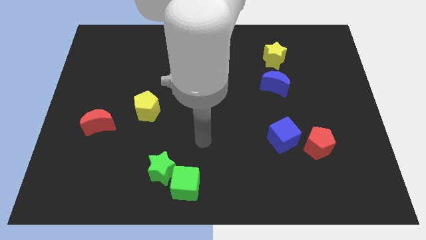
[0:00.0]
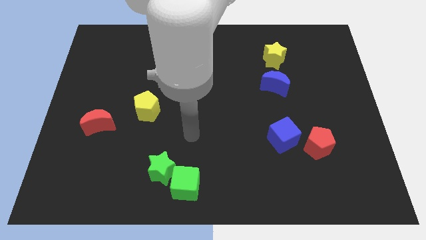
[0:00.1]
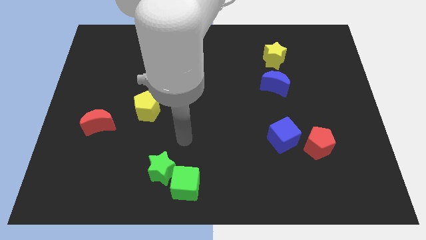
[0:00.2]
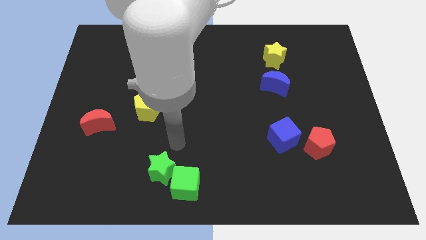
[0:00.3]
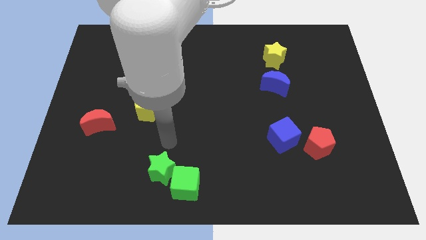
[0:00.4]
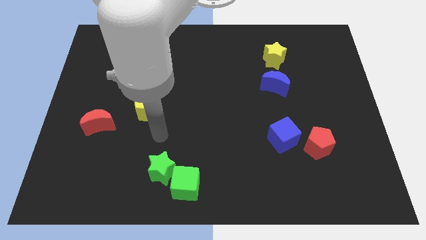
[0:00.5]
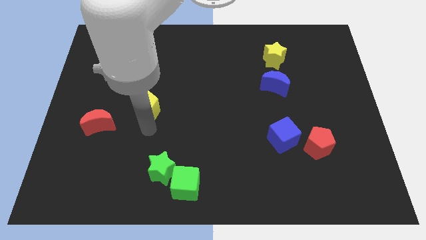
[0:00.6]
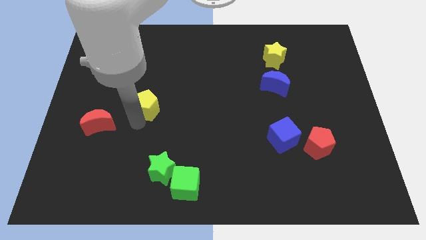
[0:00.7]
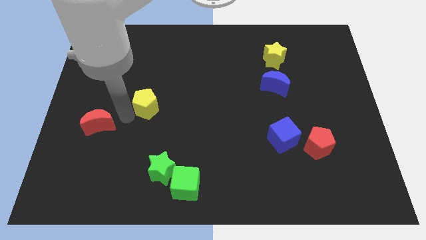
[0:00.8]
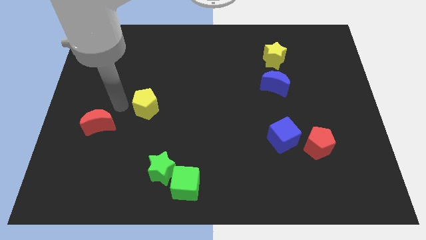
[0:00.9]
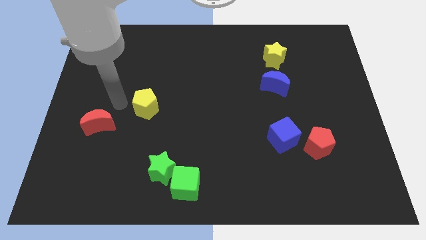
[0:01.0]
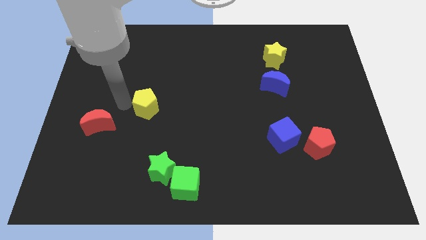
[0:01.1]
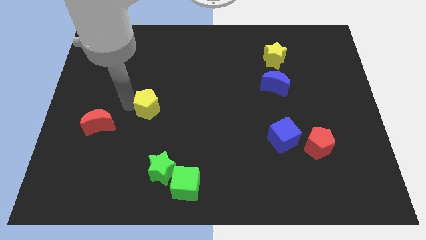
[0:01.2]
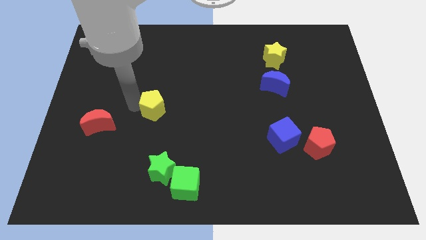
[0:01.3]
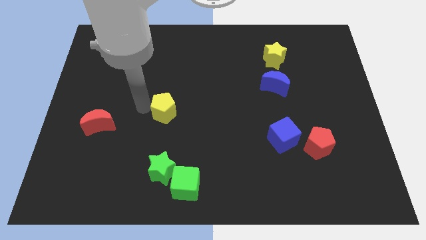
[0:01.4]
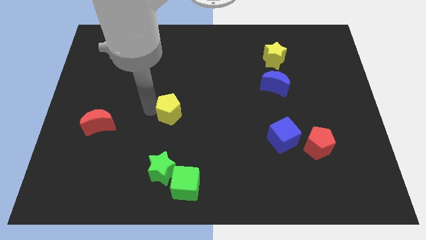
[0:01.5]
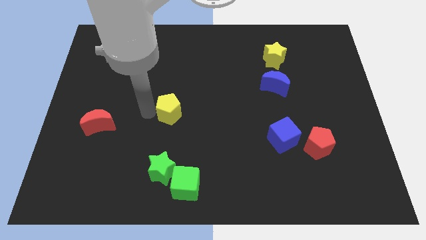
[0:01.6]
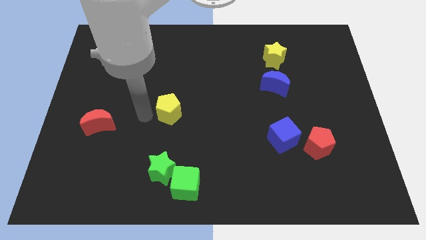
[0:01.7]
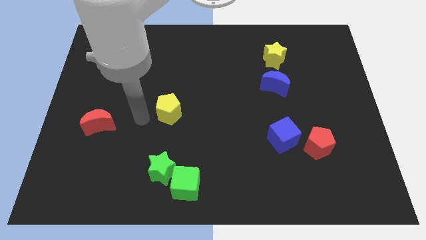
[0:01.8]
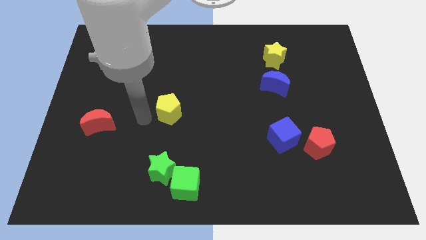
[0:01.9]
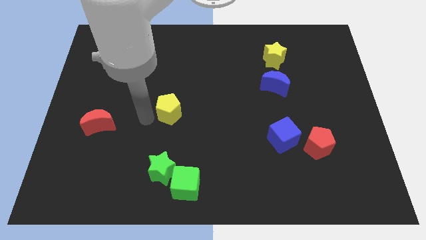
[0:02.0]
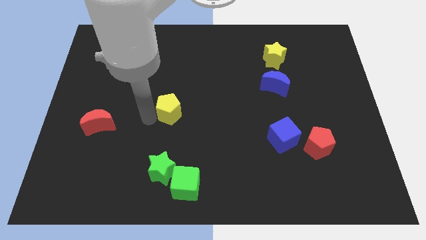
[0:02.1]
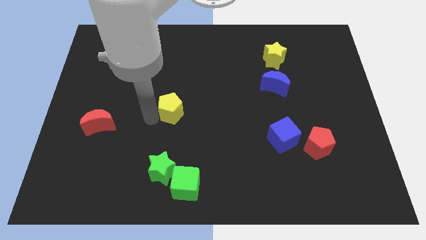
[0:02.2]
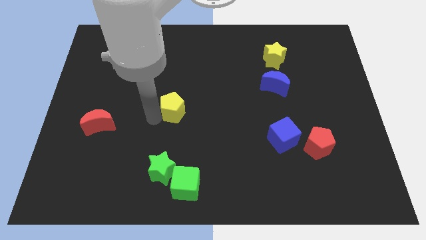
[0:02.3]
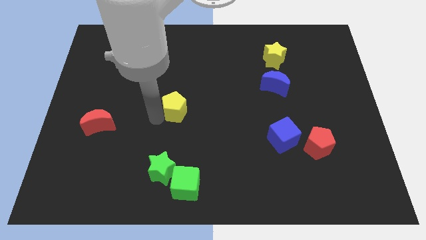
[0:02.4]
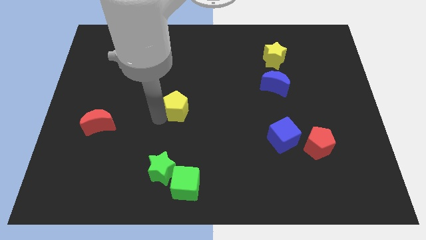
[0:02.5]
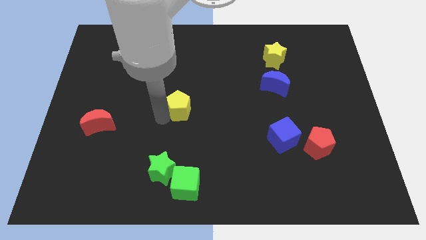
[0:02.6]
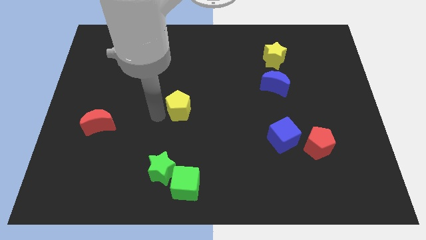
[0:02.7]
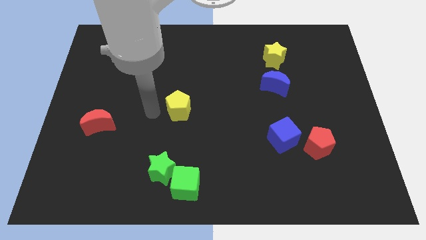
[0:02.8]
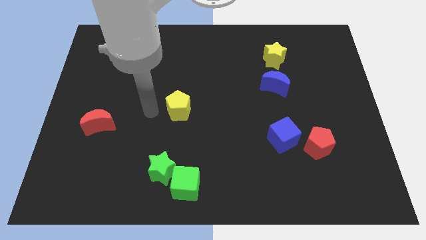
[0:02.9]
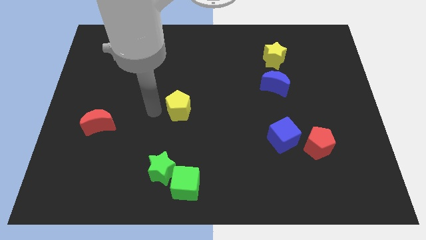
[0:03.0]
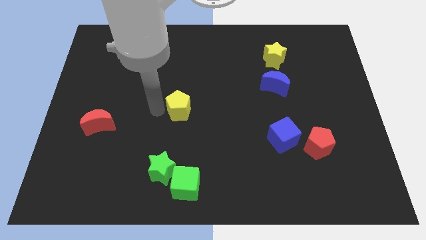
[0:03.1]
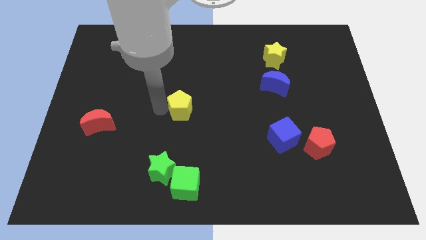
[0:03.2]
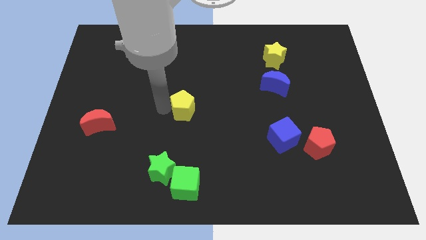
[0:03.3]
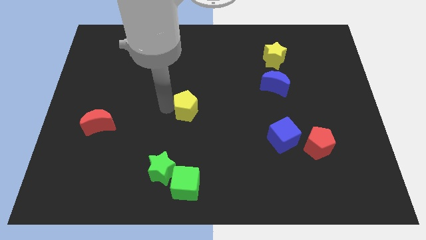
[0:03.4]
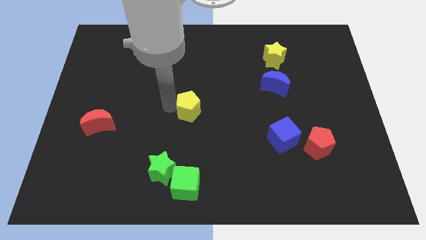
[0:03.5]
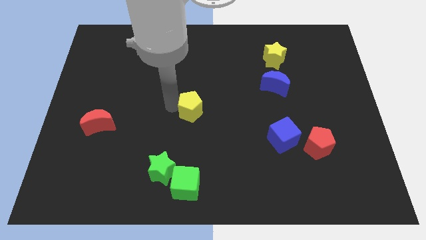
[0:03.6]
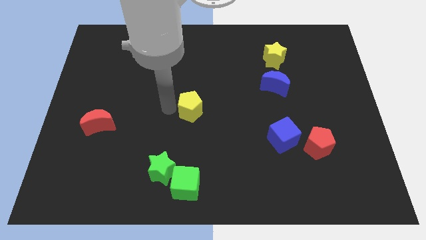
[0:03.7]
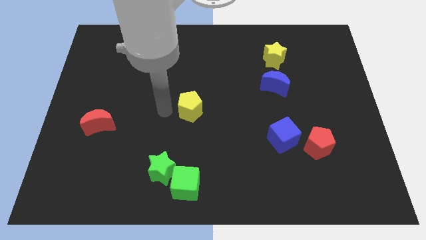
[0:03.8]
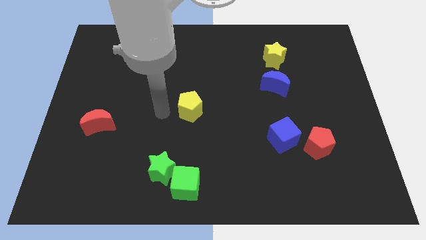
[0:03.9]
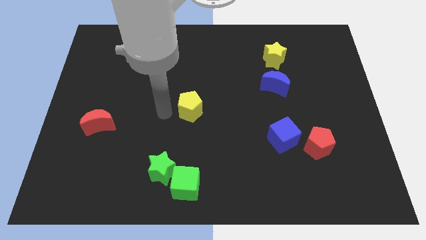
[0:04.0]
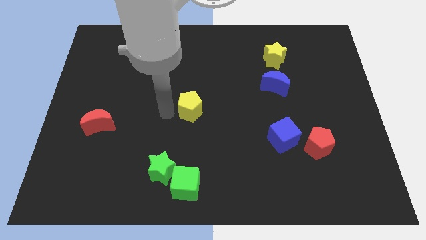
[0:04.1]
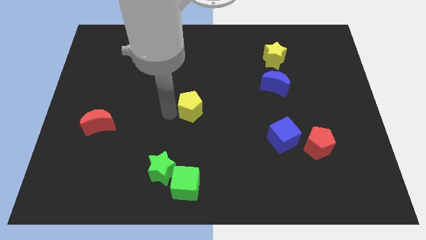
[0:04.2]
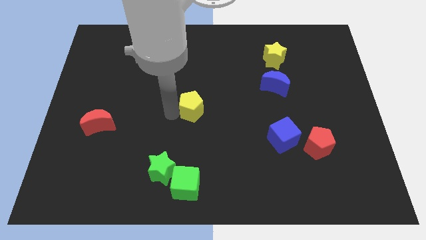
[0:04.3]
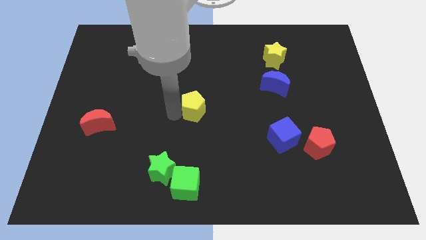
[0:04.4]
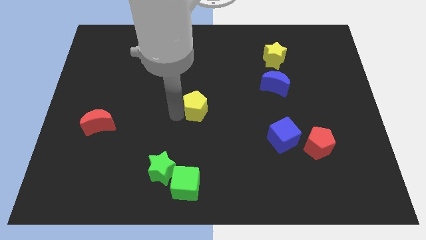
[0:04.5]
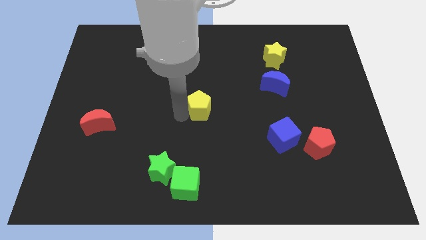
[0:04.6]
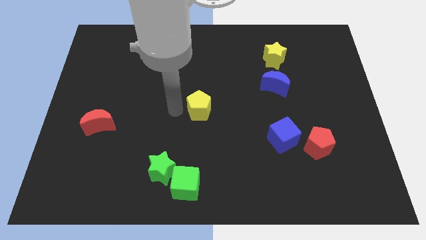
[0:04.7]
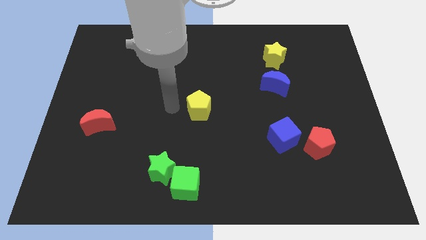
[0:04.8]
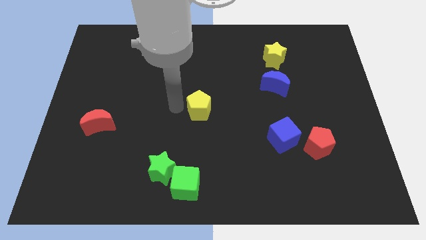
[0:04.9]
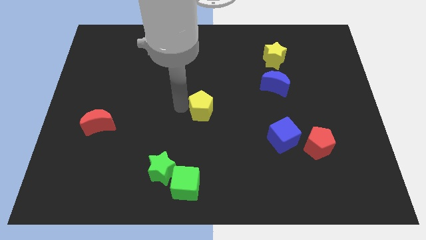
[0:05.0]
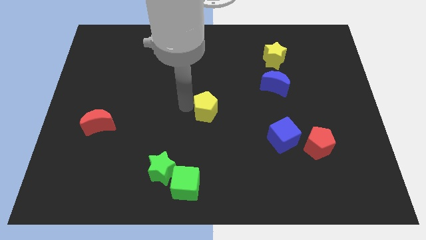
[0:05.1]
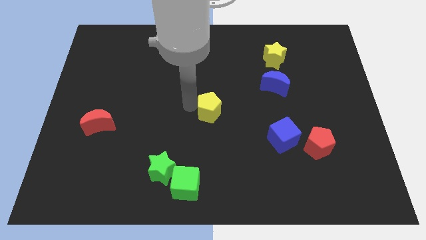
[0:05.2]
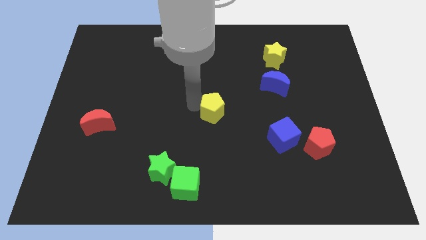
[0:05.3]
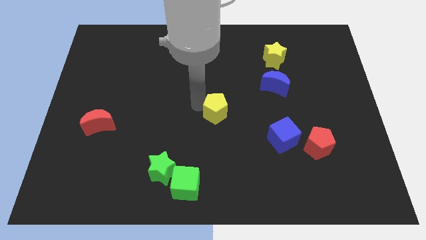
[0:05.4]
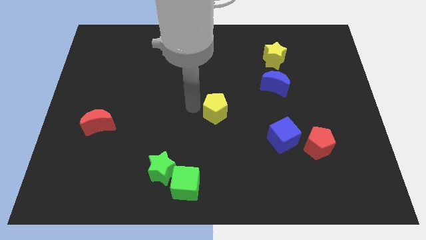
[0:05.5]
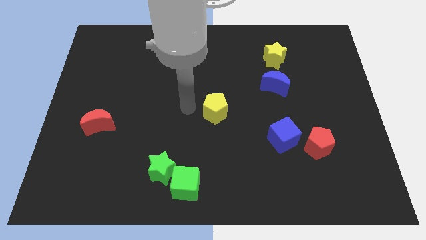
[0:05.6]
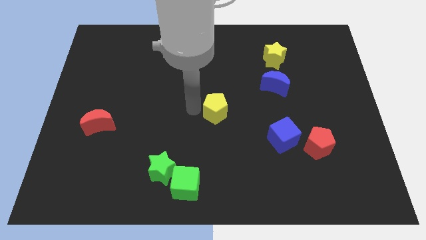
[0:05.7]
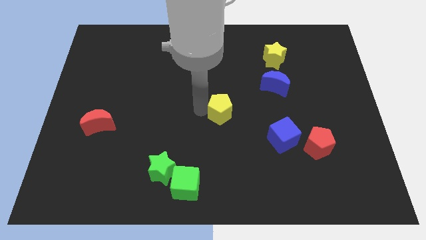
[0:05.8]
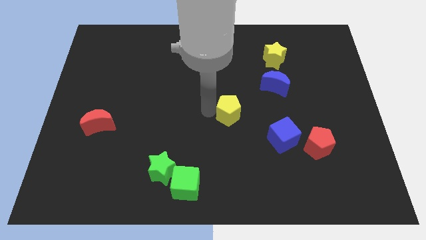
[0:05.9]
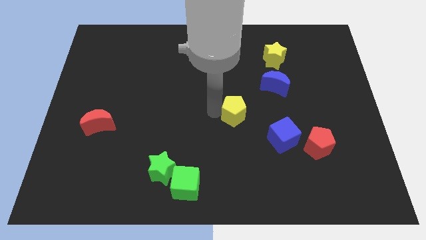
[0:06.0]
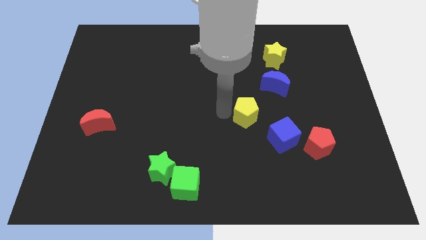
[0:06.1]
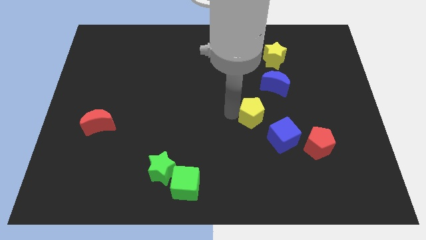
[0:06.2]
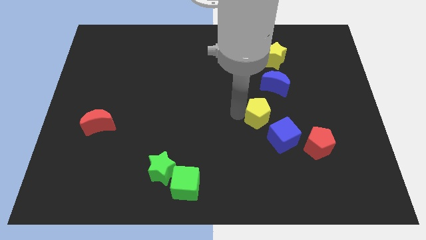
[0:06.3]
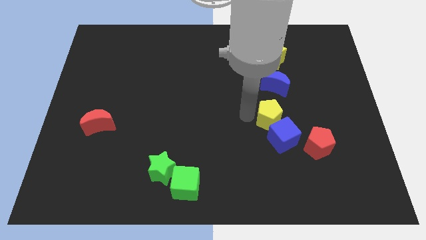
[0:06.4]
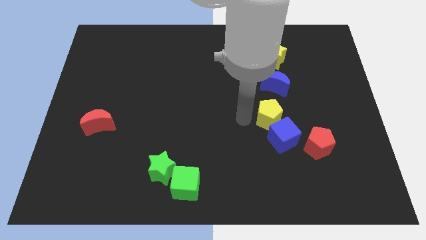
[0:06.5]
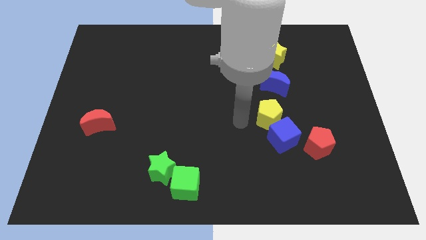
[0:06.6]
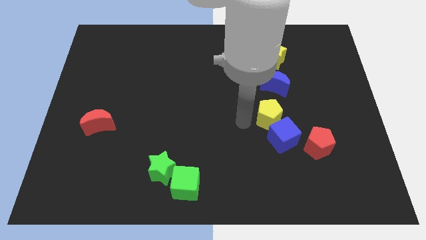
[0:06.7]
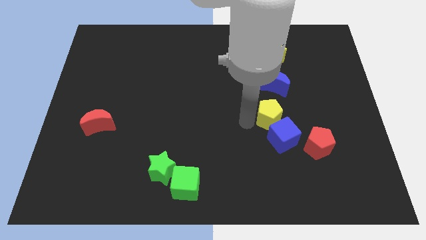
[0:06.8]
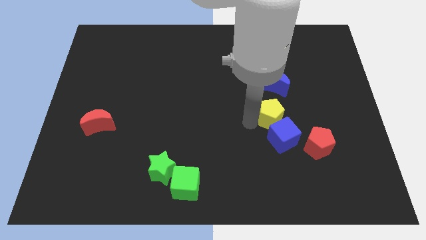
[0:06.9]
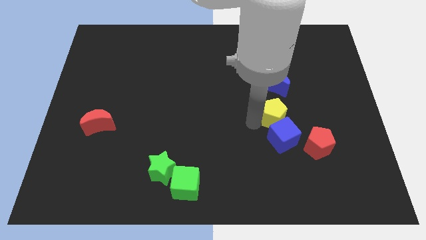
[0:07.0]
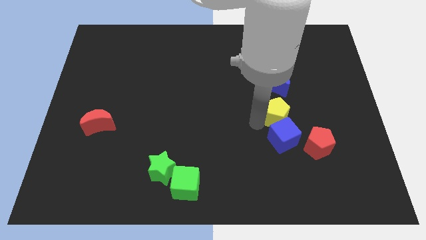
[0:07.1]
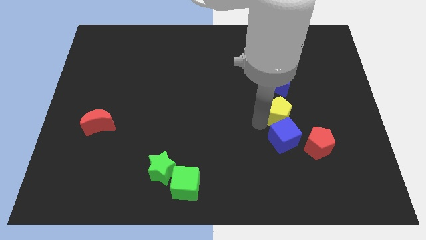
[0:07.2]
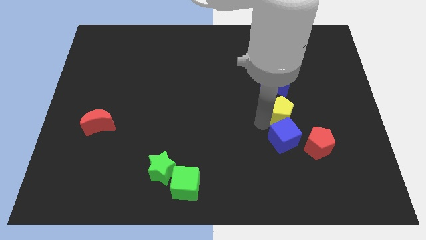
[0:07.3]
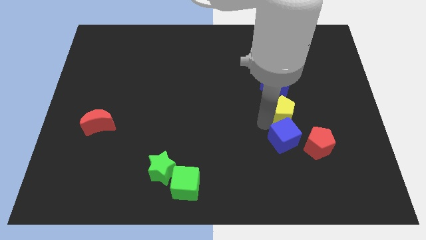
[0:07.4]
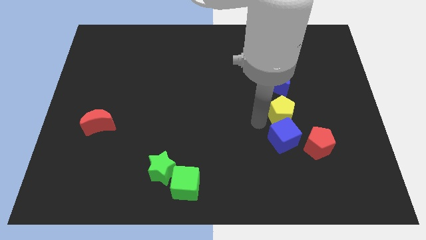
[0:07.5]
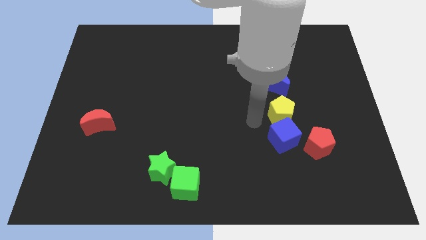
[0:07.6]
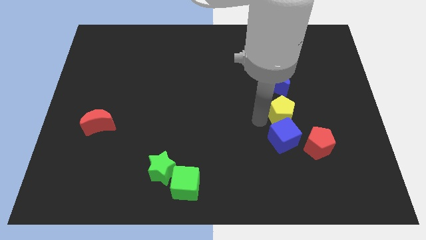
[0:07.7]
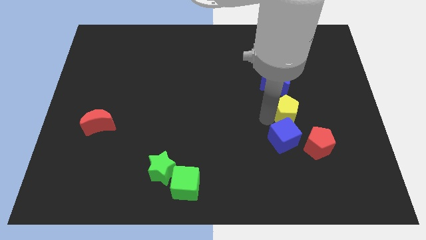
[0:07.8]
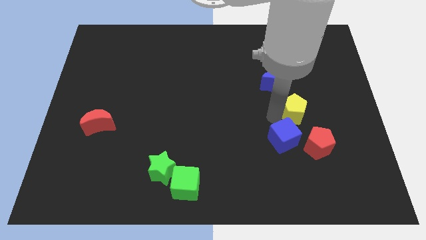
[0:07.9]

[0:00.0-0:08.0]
push the yellow pentagon to the top of the red pentagon
